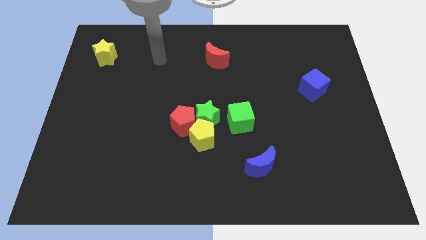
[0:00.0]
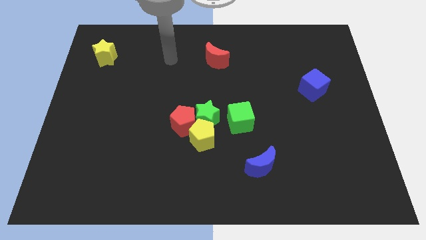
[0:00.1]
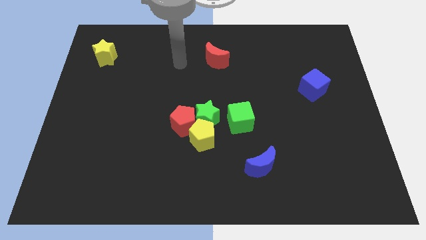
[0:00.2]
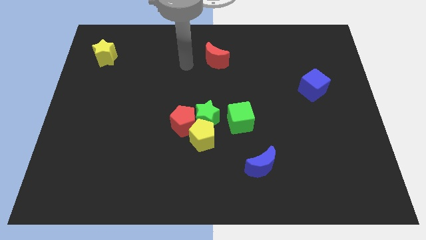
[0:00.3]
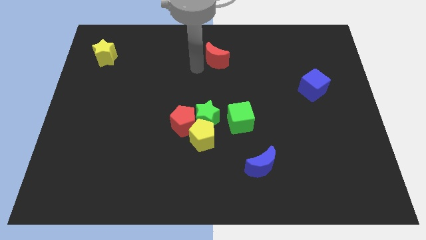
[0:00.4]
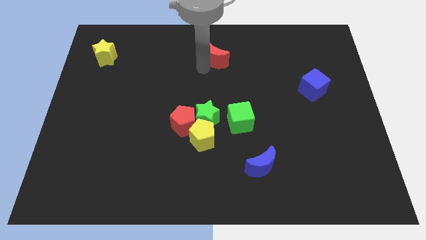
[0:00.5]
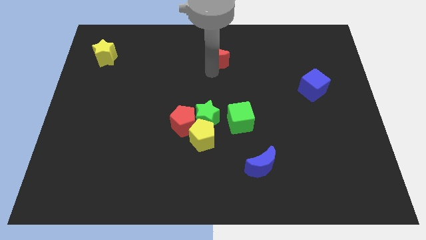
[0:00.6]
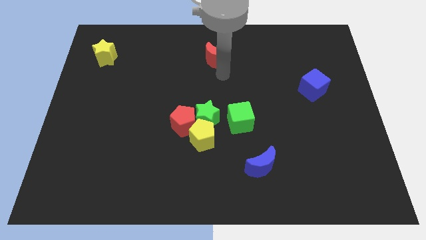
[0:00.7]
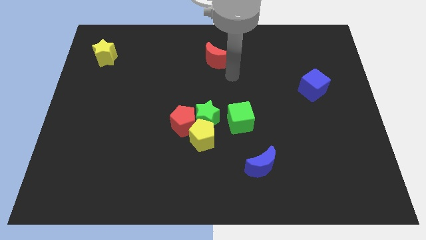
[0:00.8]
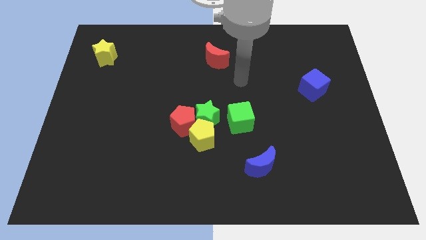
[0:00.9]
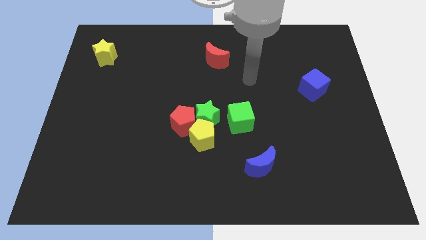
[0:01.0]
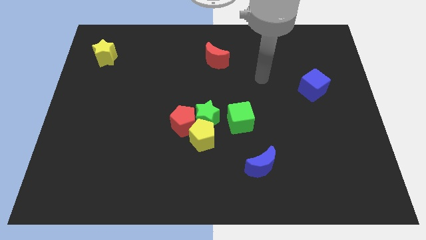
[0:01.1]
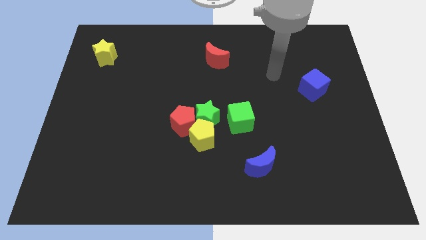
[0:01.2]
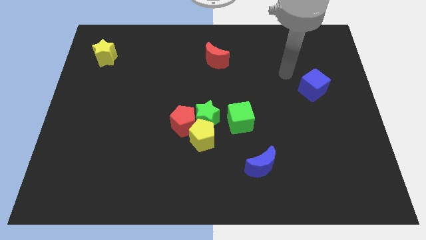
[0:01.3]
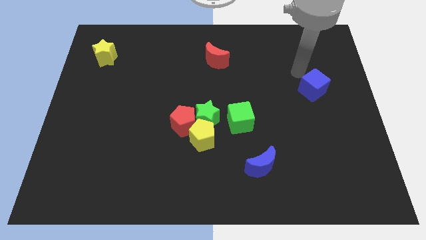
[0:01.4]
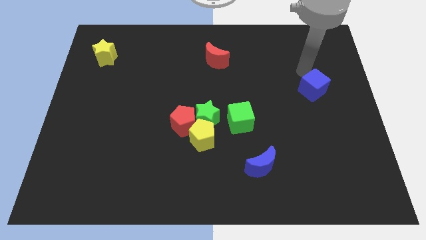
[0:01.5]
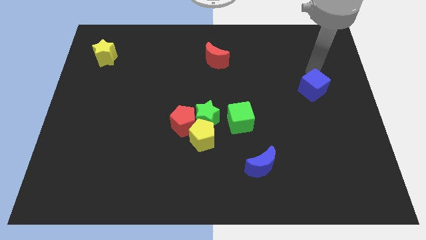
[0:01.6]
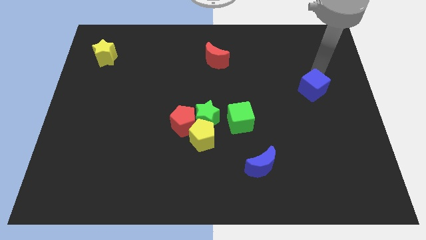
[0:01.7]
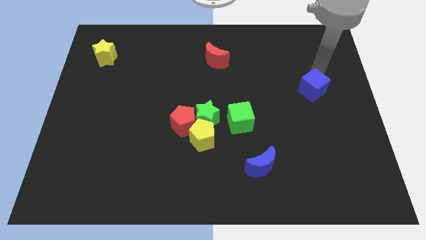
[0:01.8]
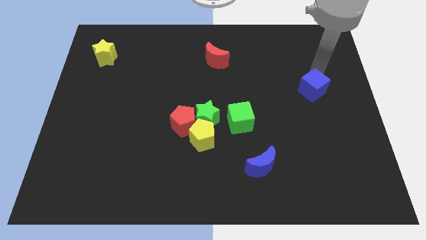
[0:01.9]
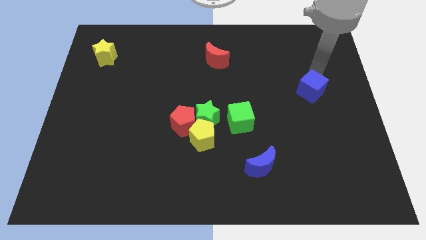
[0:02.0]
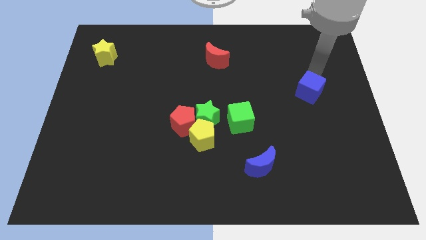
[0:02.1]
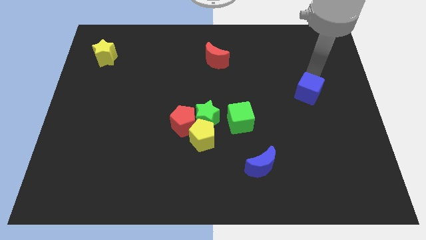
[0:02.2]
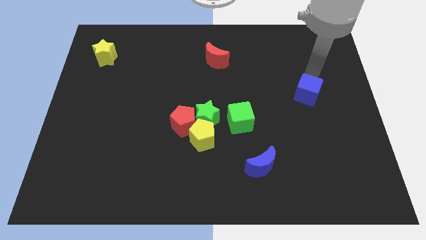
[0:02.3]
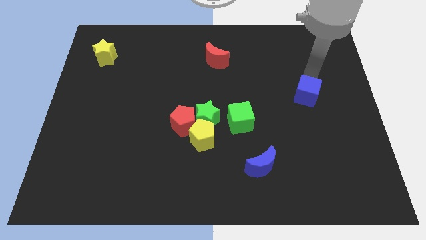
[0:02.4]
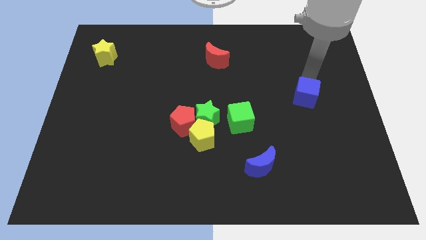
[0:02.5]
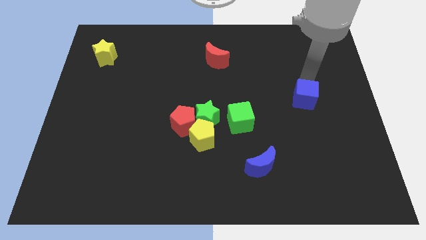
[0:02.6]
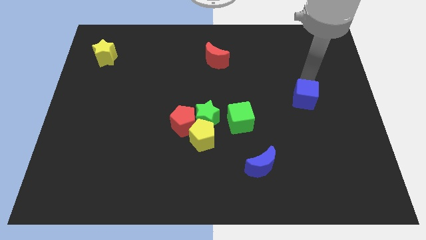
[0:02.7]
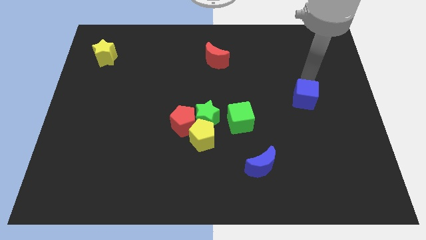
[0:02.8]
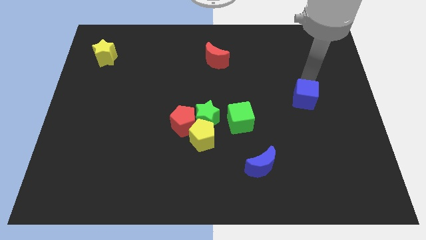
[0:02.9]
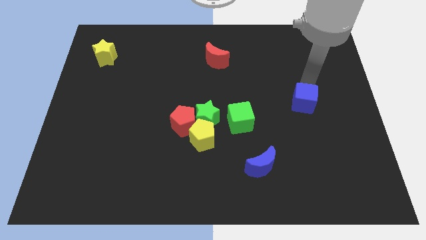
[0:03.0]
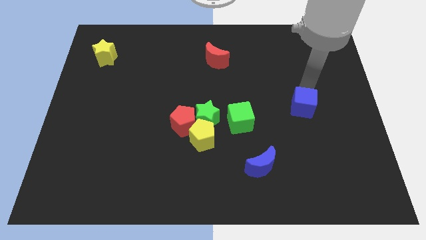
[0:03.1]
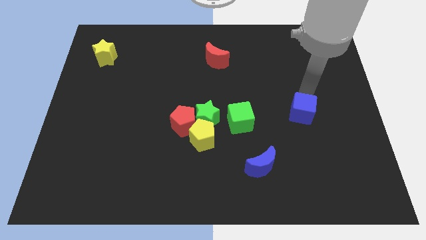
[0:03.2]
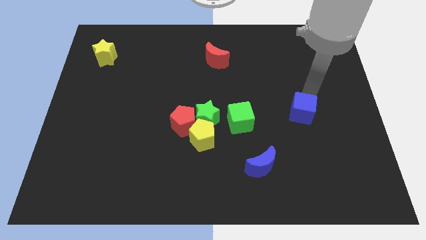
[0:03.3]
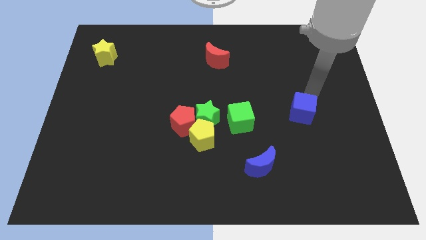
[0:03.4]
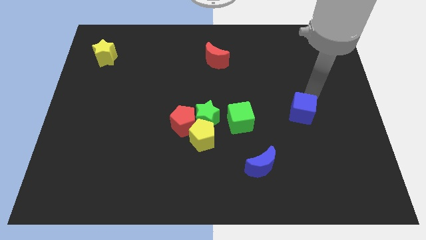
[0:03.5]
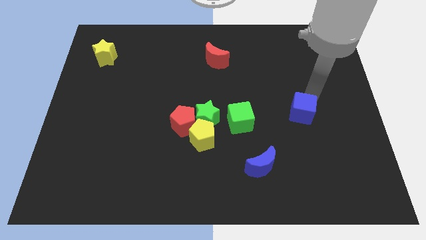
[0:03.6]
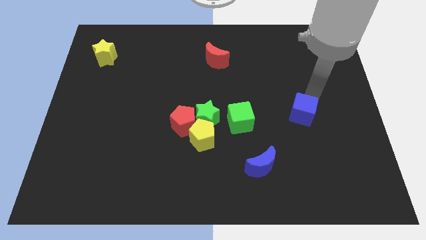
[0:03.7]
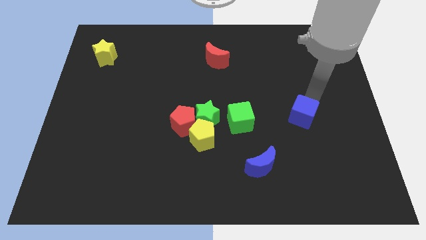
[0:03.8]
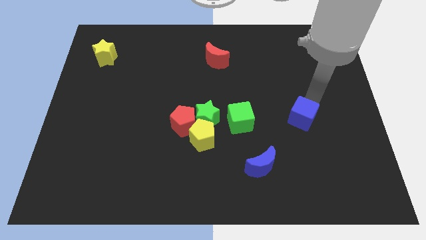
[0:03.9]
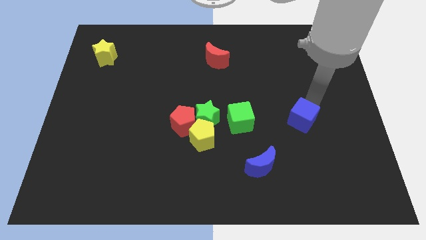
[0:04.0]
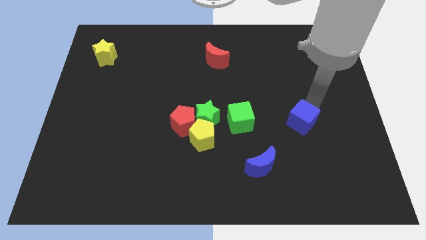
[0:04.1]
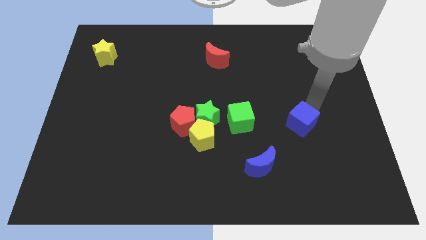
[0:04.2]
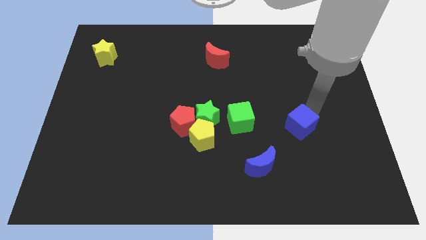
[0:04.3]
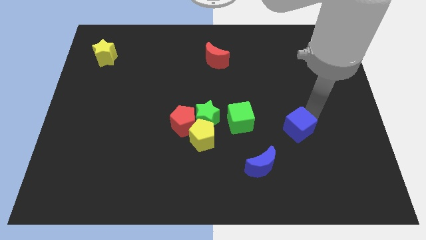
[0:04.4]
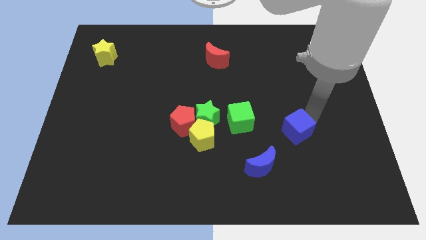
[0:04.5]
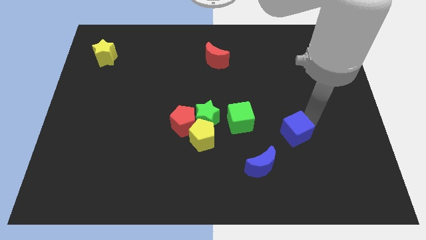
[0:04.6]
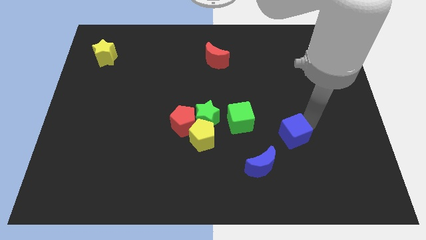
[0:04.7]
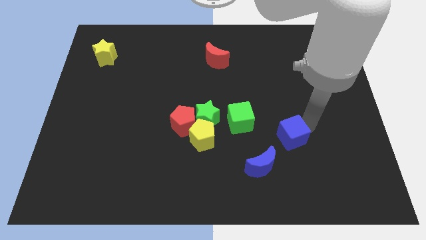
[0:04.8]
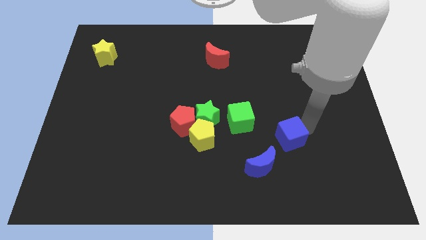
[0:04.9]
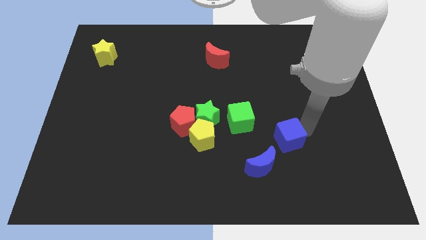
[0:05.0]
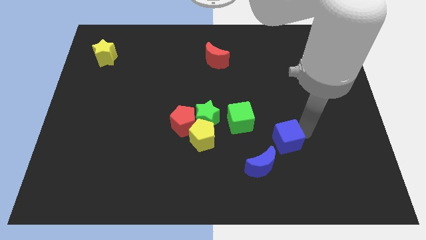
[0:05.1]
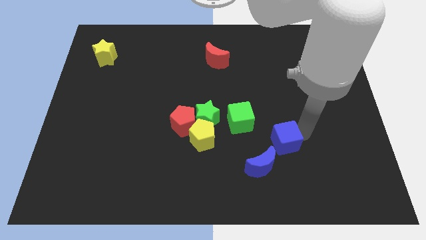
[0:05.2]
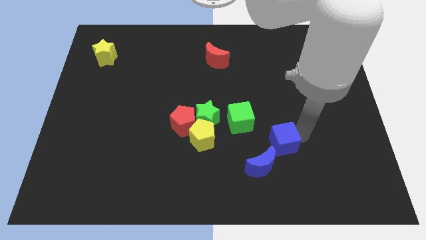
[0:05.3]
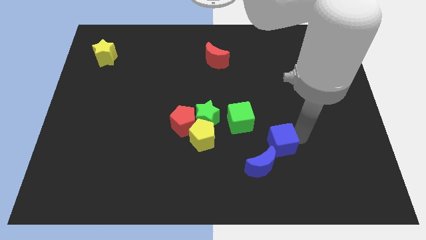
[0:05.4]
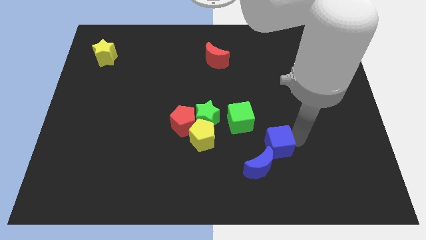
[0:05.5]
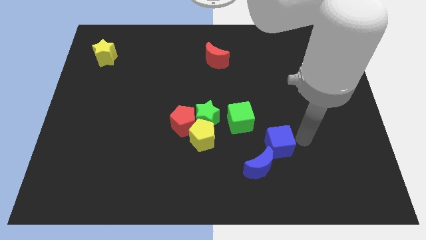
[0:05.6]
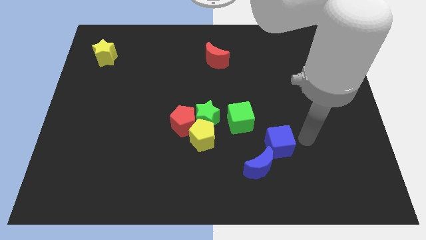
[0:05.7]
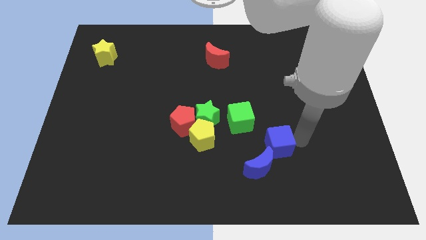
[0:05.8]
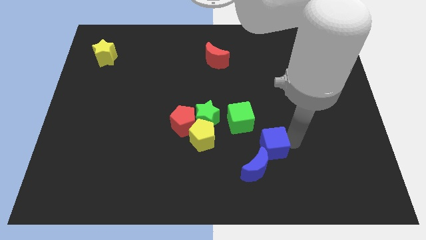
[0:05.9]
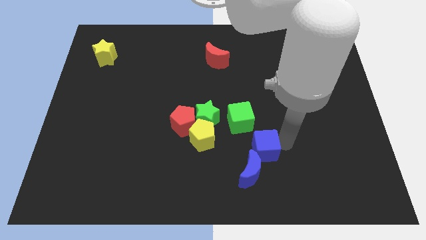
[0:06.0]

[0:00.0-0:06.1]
move the blue cube down and to the left diagonally

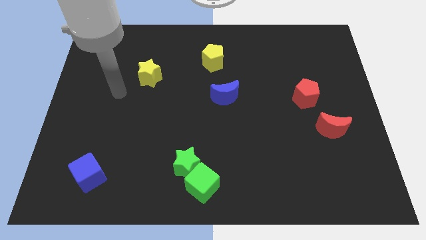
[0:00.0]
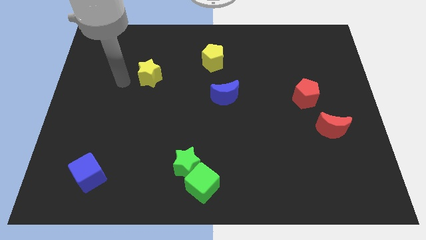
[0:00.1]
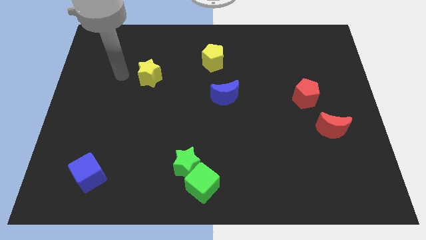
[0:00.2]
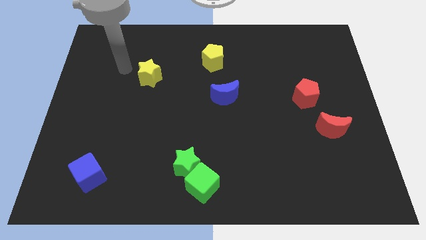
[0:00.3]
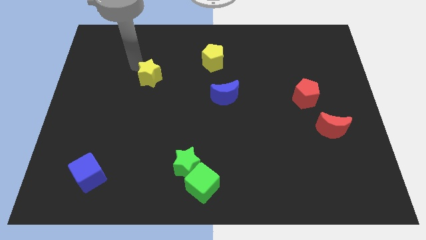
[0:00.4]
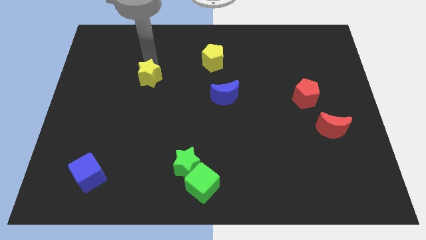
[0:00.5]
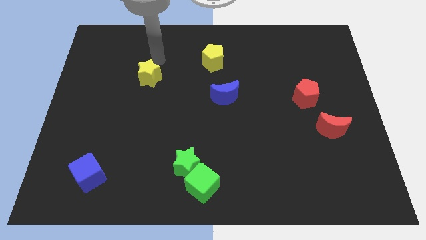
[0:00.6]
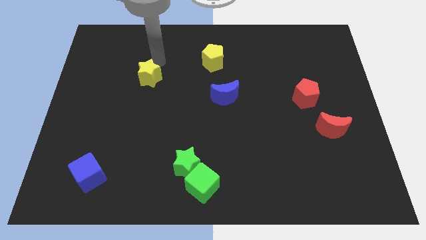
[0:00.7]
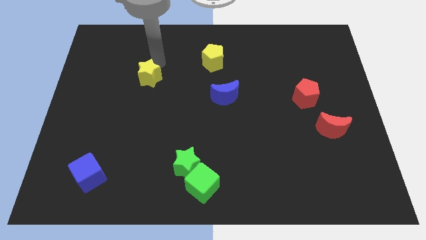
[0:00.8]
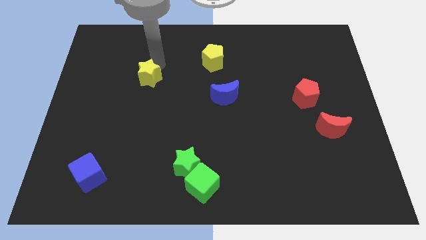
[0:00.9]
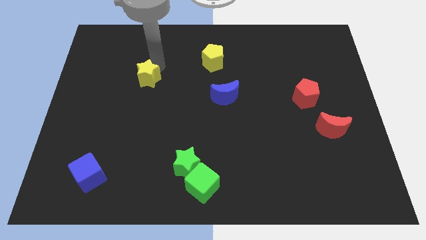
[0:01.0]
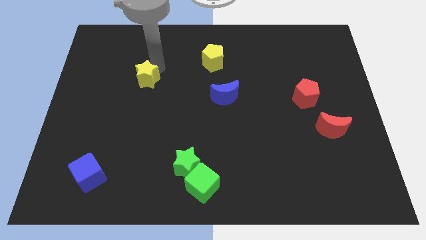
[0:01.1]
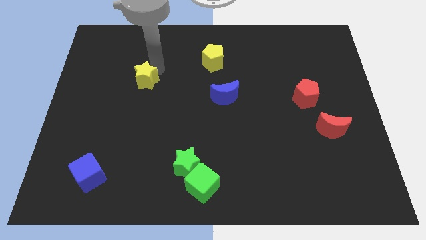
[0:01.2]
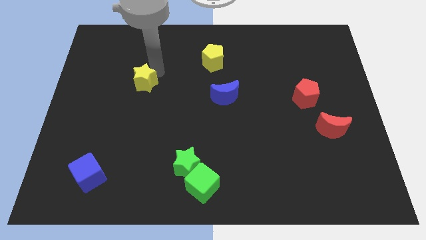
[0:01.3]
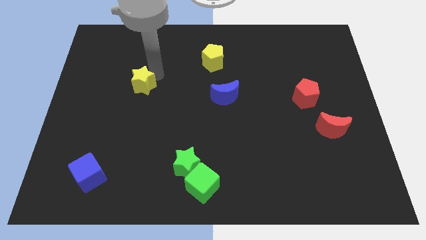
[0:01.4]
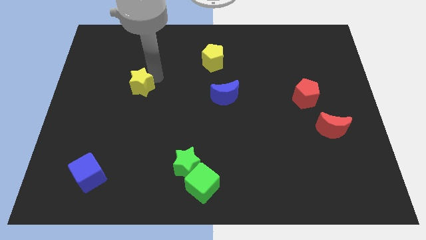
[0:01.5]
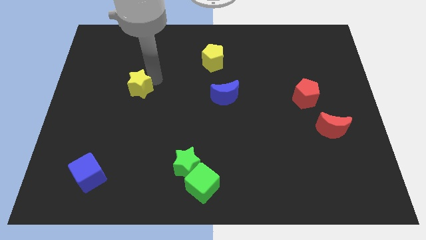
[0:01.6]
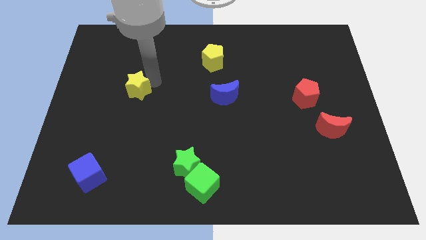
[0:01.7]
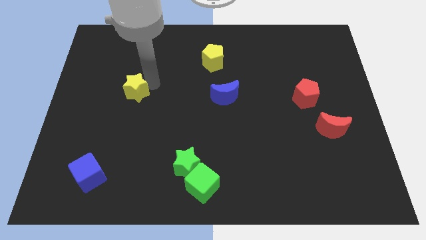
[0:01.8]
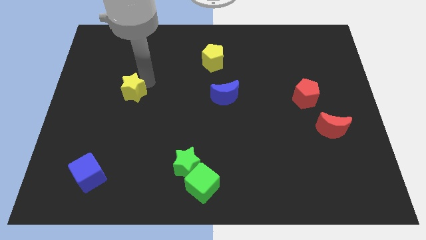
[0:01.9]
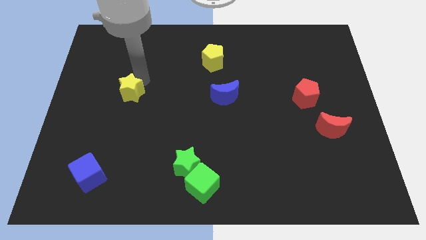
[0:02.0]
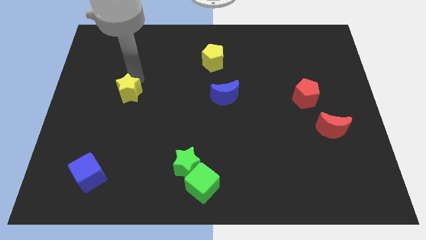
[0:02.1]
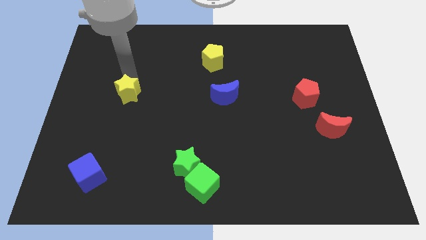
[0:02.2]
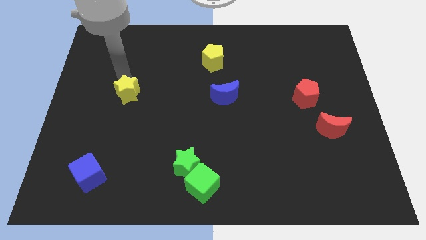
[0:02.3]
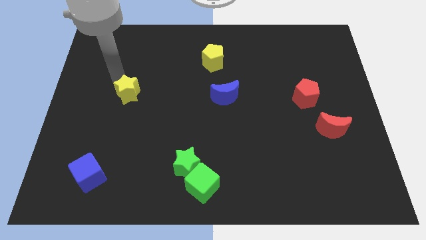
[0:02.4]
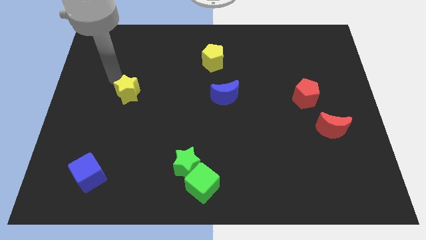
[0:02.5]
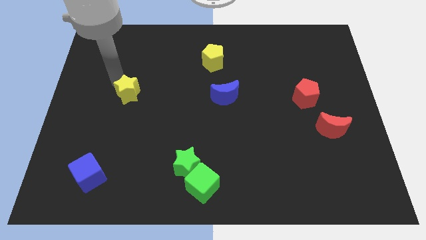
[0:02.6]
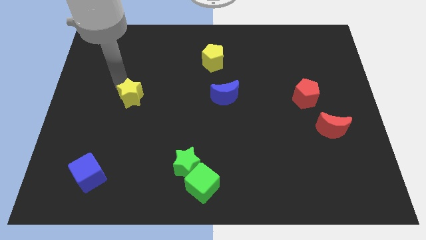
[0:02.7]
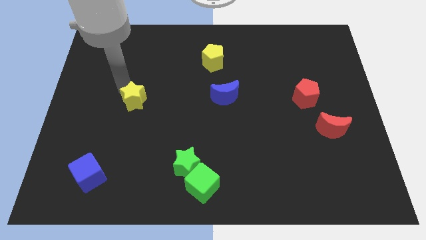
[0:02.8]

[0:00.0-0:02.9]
push the yellow star a little bit downwards
